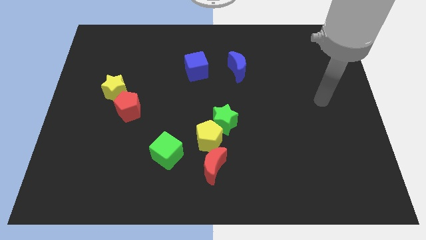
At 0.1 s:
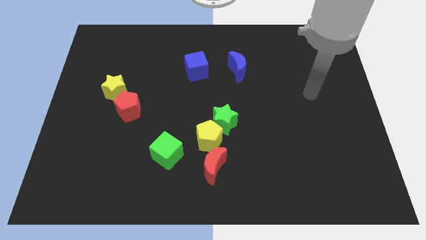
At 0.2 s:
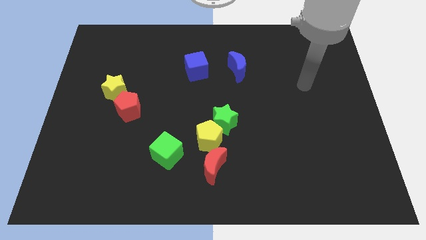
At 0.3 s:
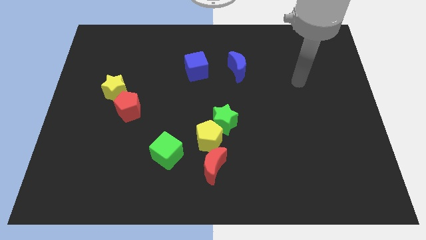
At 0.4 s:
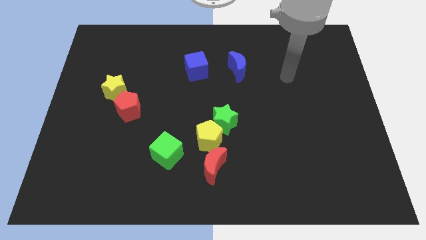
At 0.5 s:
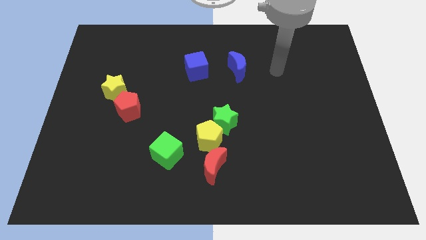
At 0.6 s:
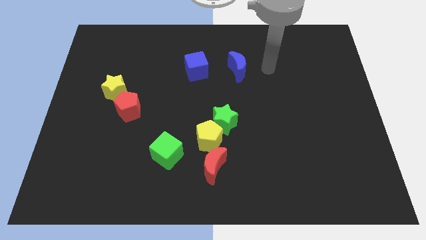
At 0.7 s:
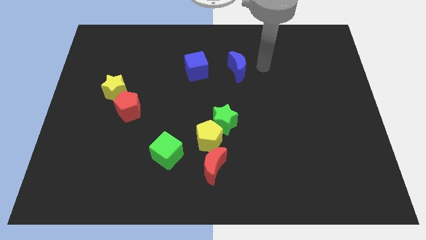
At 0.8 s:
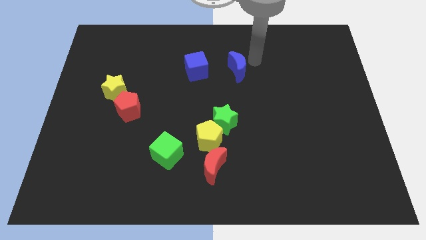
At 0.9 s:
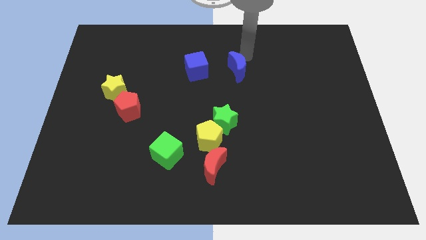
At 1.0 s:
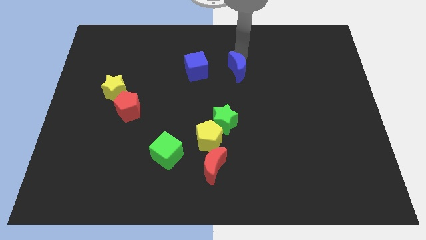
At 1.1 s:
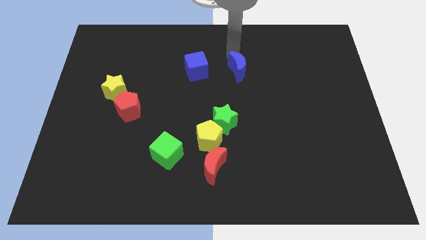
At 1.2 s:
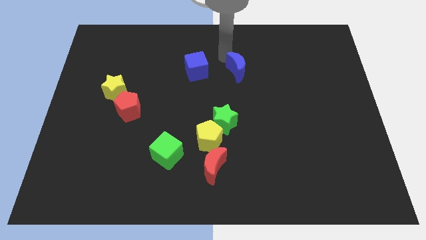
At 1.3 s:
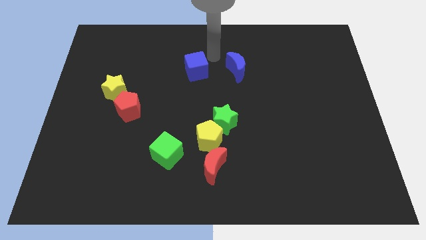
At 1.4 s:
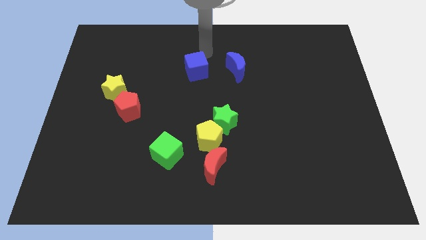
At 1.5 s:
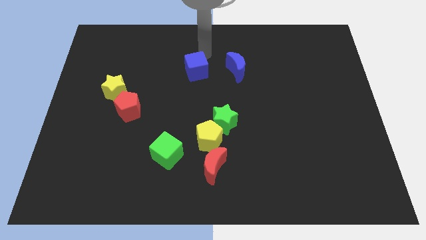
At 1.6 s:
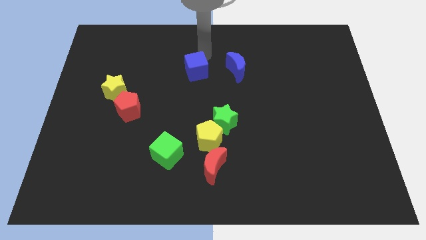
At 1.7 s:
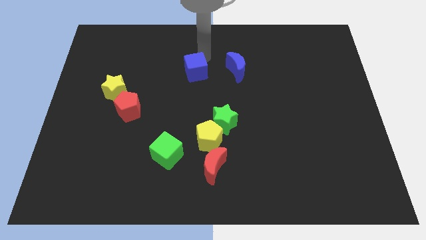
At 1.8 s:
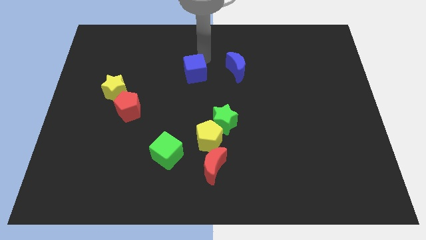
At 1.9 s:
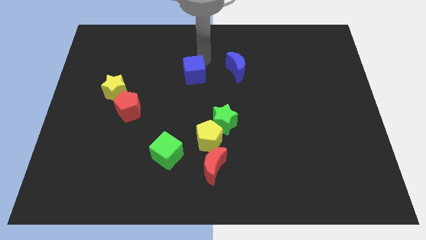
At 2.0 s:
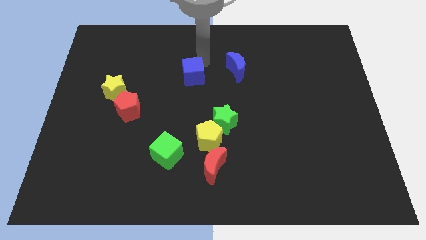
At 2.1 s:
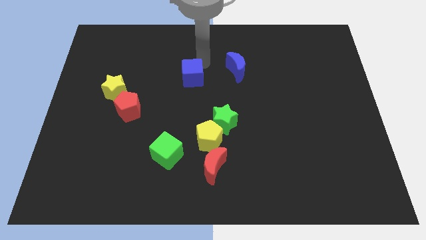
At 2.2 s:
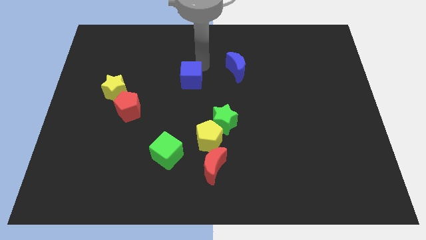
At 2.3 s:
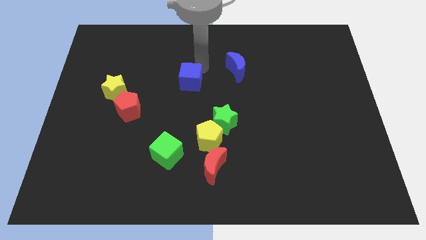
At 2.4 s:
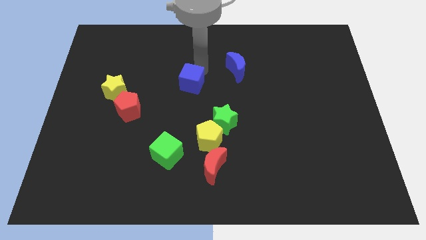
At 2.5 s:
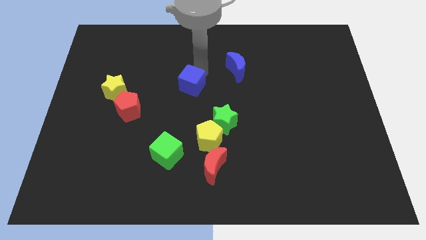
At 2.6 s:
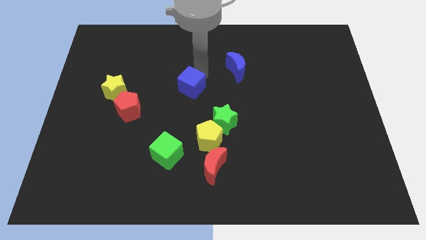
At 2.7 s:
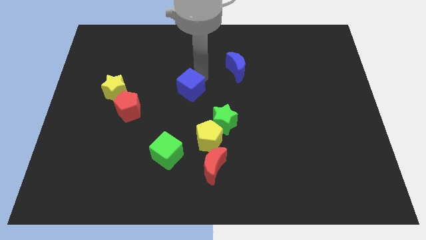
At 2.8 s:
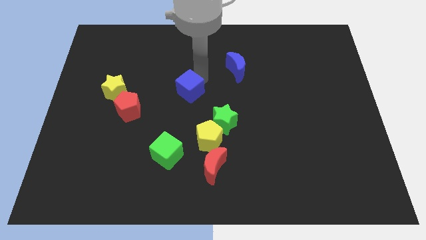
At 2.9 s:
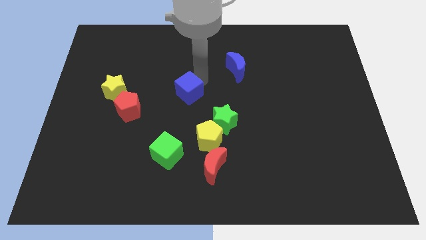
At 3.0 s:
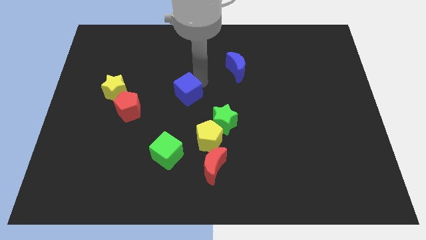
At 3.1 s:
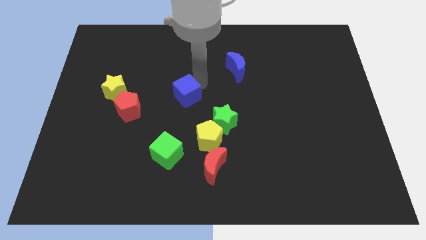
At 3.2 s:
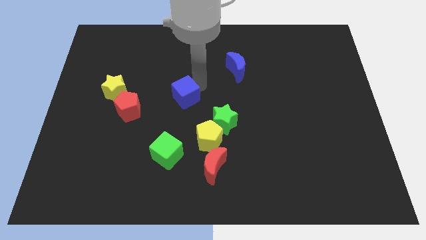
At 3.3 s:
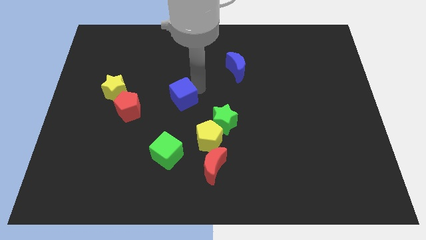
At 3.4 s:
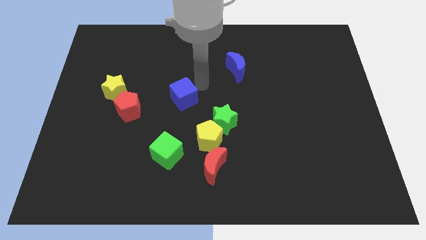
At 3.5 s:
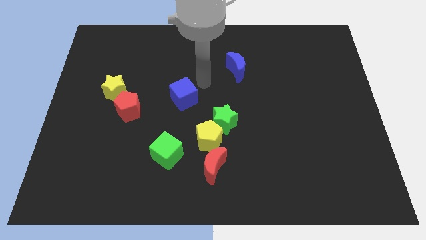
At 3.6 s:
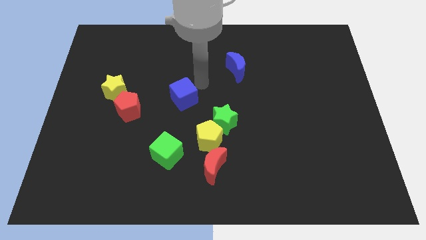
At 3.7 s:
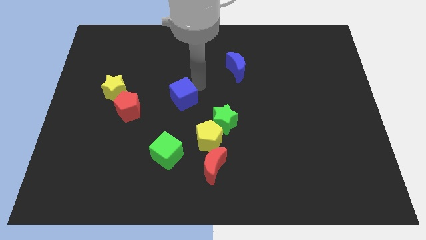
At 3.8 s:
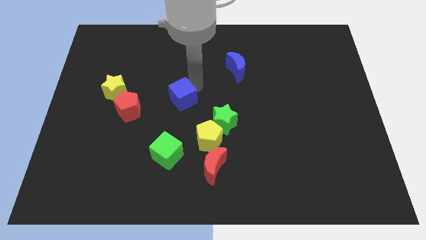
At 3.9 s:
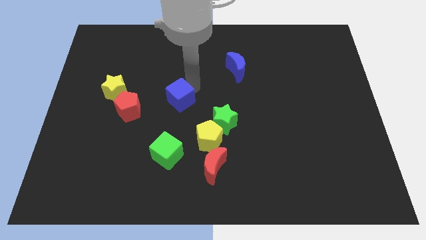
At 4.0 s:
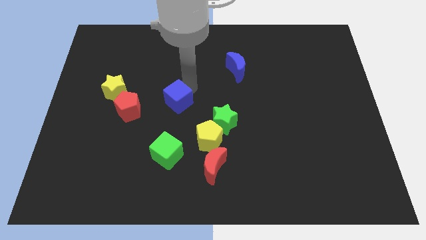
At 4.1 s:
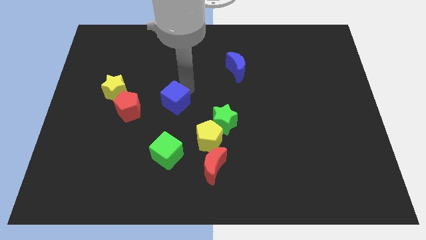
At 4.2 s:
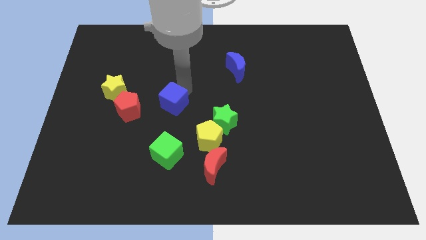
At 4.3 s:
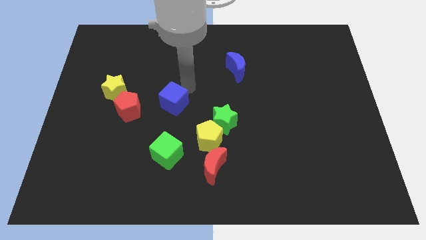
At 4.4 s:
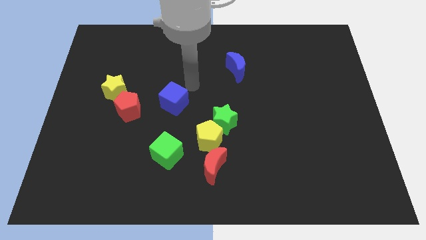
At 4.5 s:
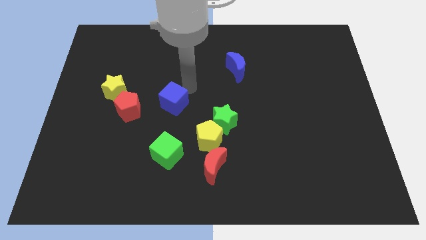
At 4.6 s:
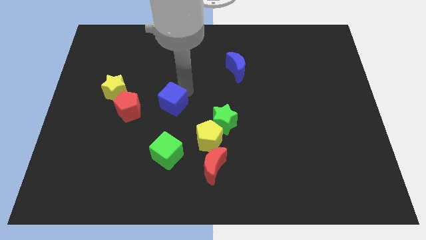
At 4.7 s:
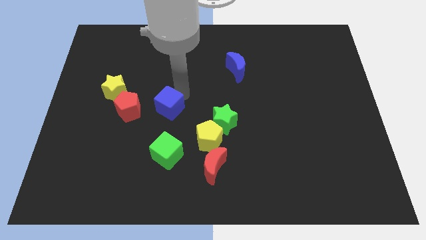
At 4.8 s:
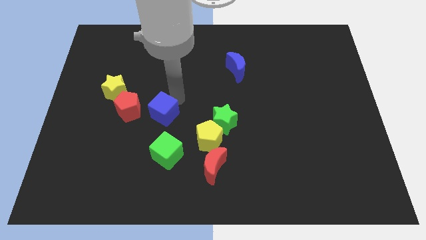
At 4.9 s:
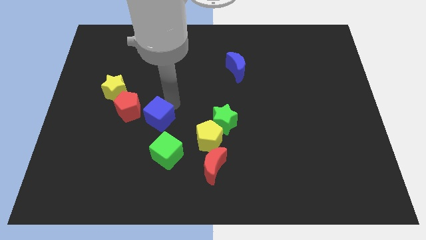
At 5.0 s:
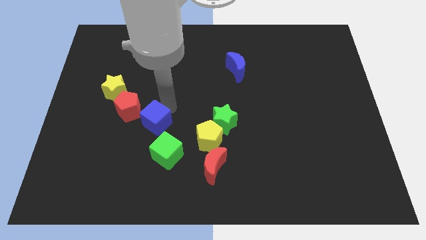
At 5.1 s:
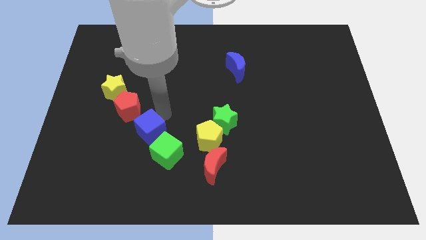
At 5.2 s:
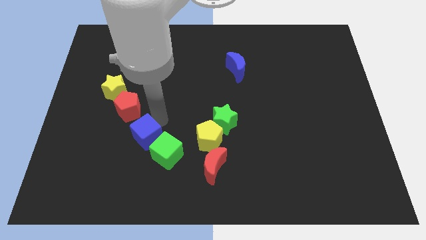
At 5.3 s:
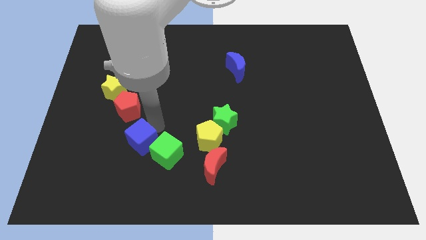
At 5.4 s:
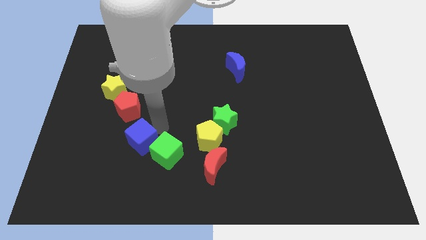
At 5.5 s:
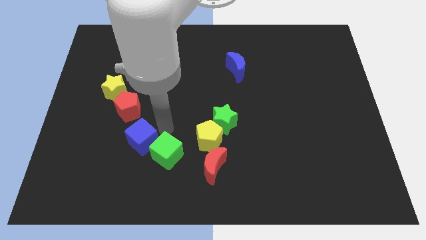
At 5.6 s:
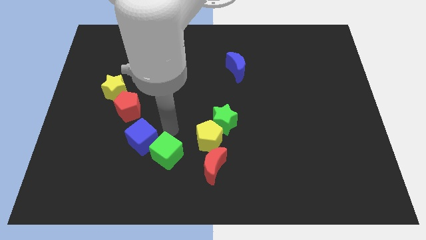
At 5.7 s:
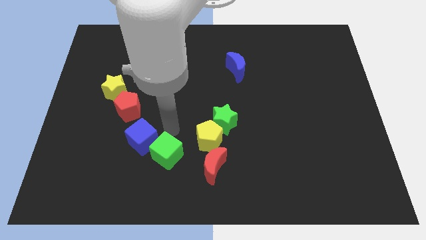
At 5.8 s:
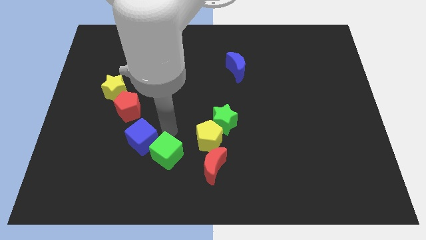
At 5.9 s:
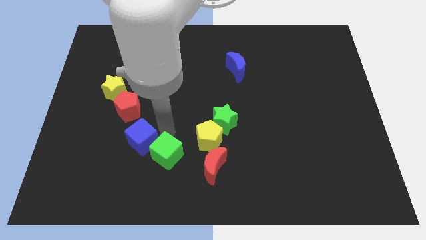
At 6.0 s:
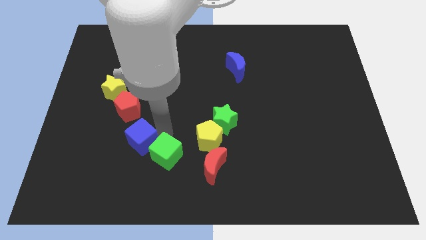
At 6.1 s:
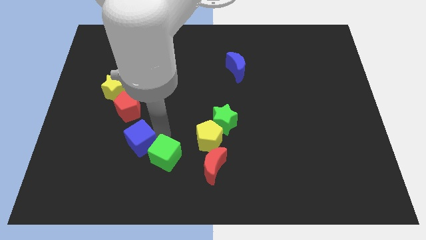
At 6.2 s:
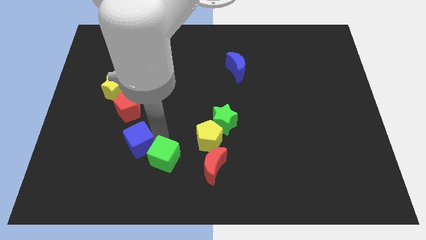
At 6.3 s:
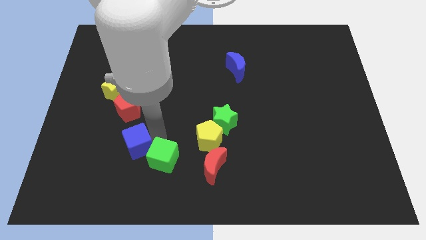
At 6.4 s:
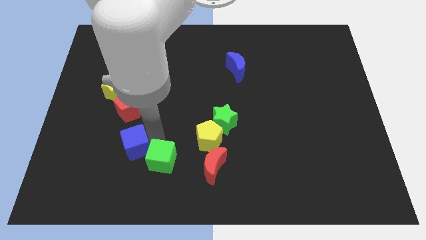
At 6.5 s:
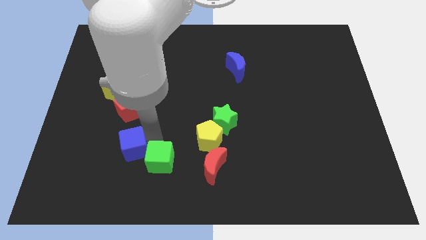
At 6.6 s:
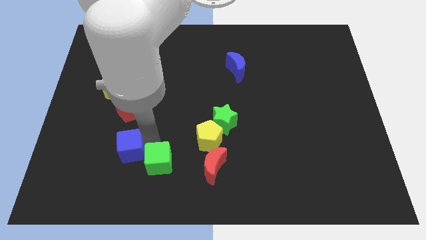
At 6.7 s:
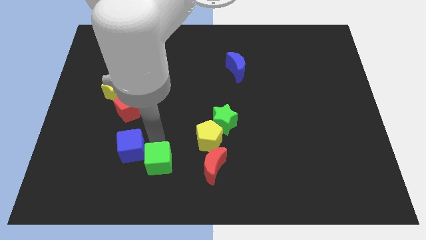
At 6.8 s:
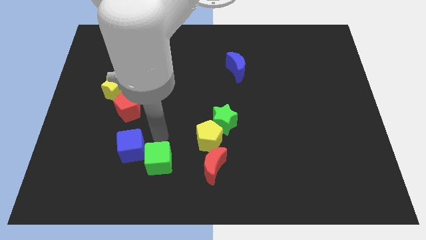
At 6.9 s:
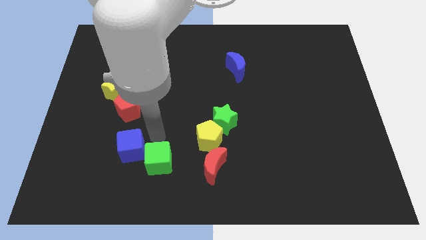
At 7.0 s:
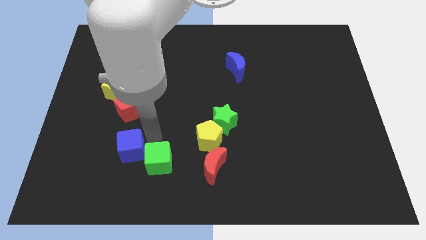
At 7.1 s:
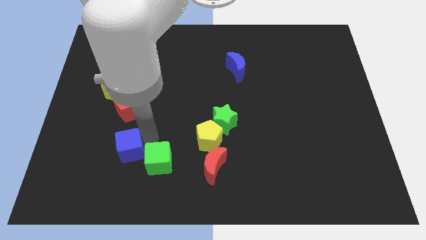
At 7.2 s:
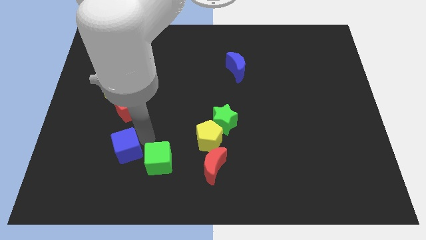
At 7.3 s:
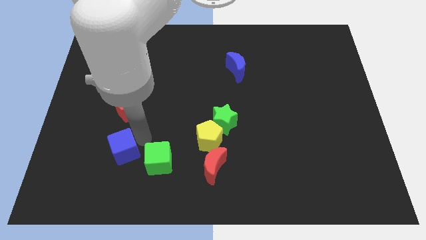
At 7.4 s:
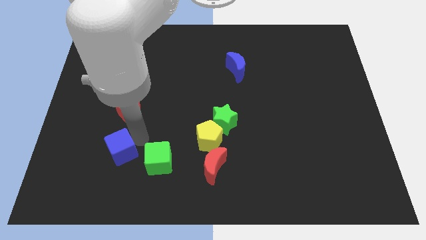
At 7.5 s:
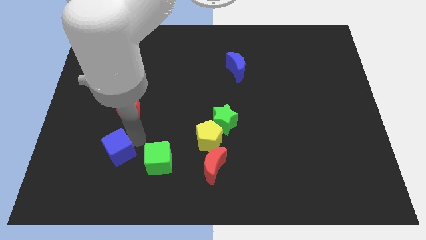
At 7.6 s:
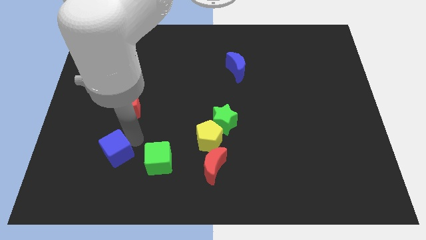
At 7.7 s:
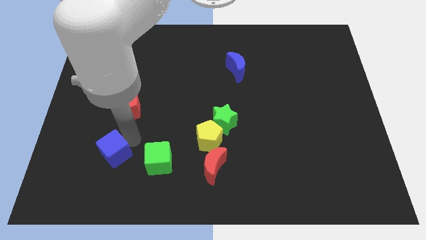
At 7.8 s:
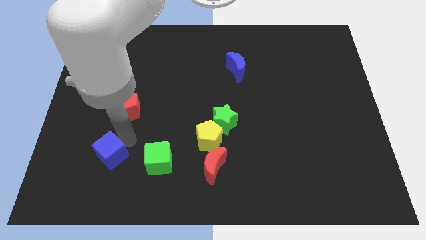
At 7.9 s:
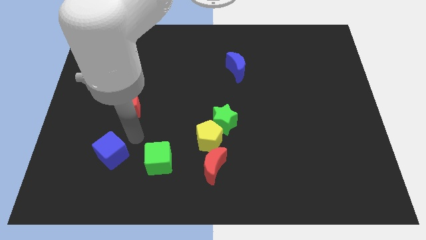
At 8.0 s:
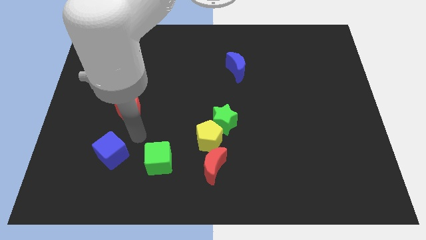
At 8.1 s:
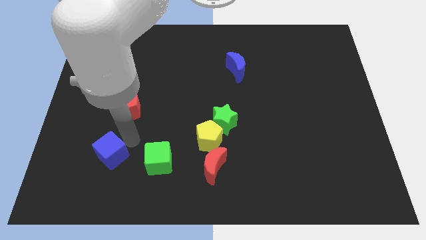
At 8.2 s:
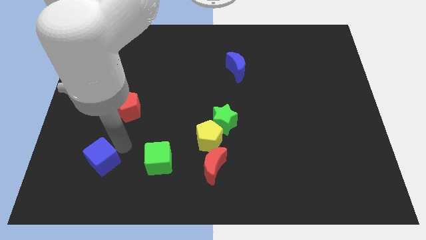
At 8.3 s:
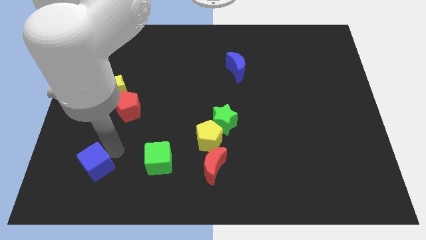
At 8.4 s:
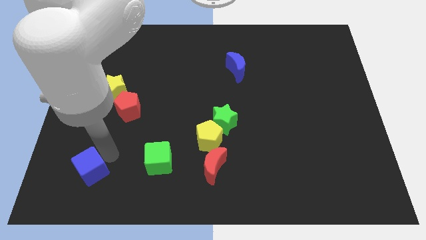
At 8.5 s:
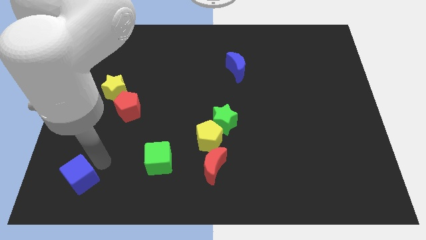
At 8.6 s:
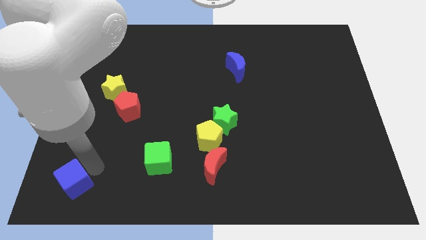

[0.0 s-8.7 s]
put the blue cube to the bottom left corner
